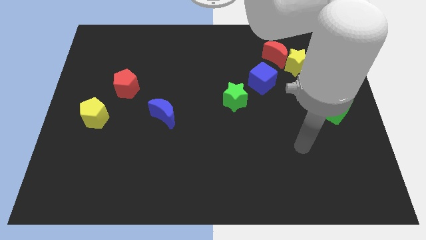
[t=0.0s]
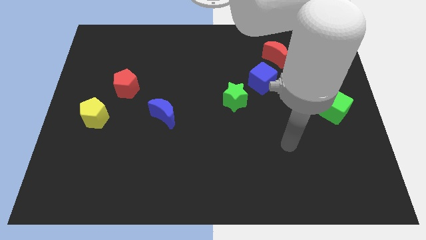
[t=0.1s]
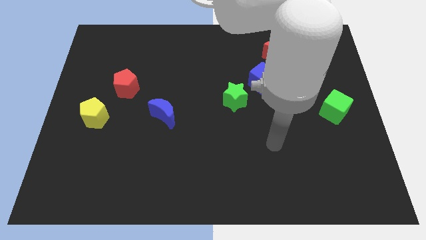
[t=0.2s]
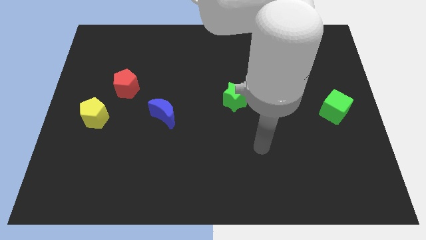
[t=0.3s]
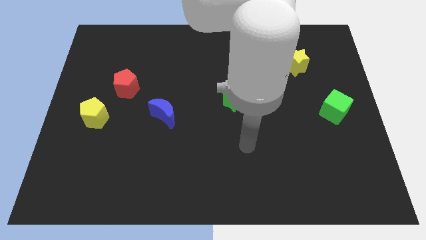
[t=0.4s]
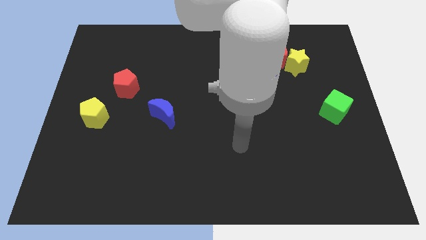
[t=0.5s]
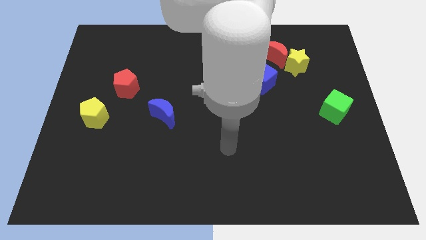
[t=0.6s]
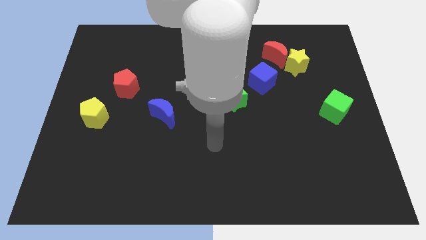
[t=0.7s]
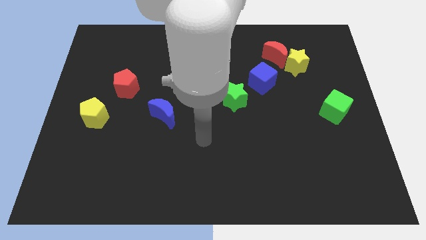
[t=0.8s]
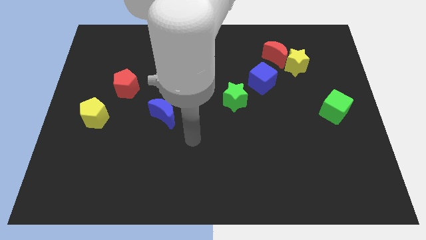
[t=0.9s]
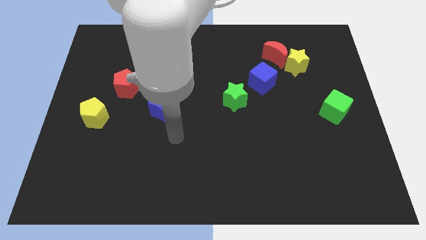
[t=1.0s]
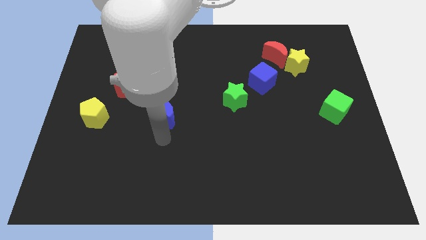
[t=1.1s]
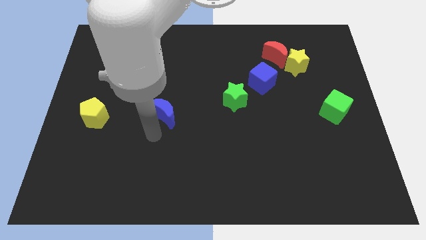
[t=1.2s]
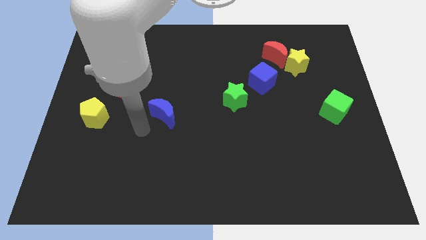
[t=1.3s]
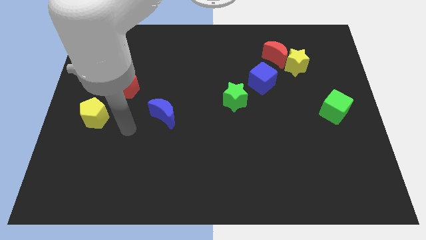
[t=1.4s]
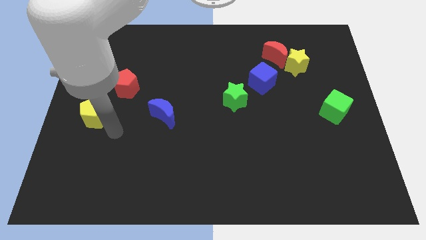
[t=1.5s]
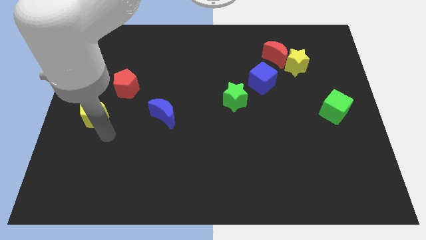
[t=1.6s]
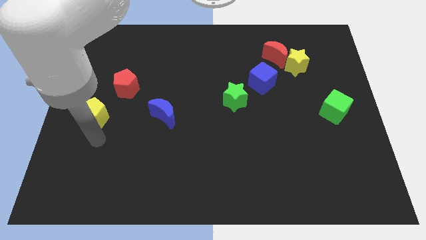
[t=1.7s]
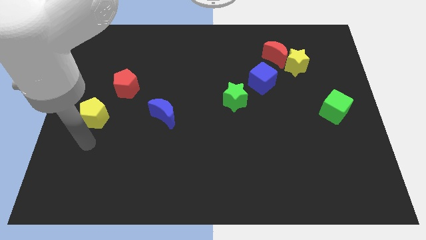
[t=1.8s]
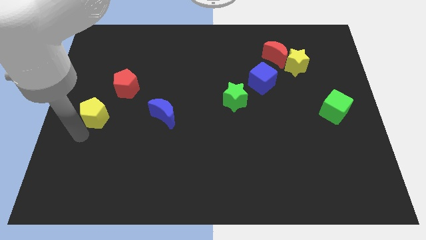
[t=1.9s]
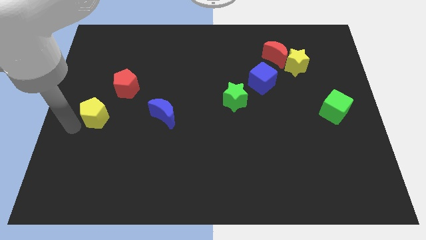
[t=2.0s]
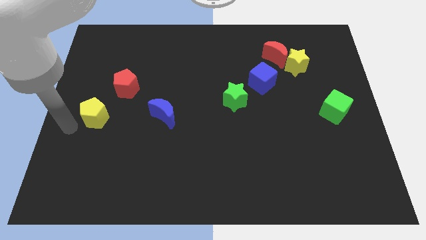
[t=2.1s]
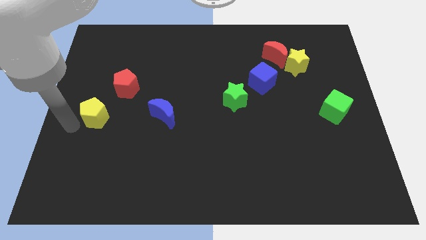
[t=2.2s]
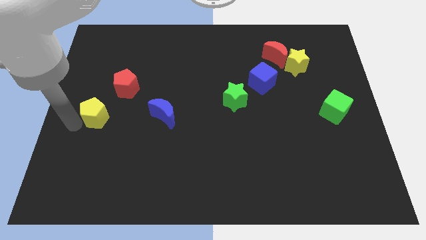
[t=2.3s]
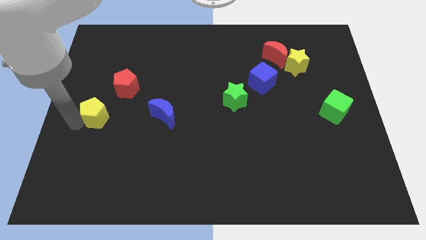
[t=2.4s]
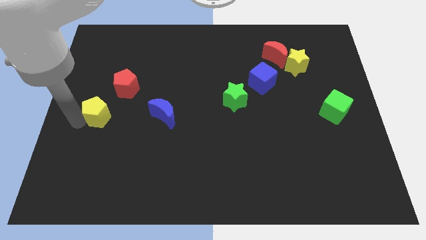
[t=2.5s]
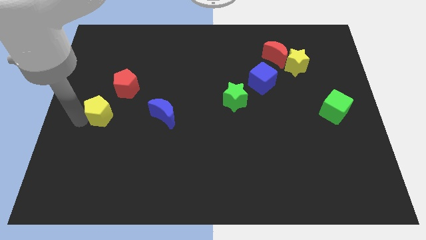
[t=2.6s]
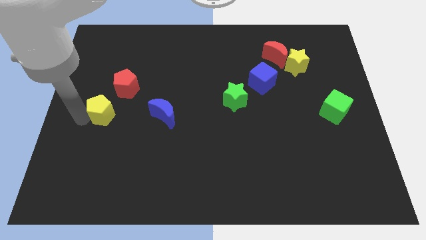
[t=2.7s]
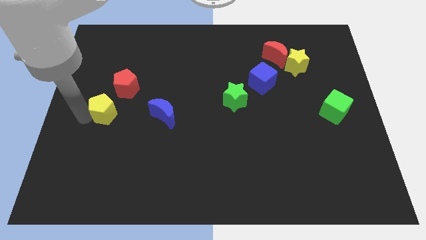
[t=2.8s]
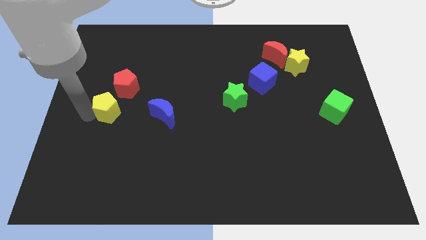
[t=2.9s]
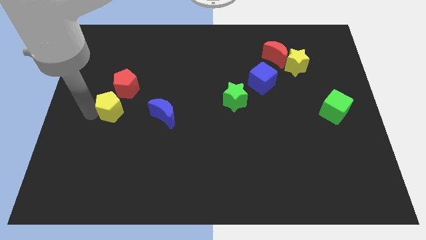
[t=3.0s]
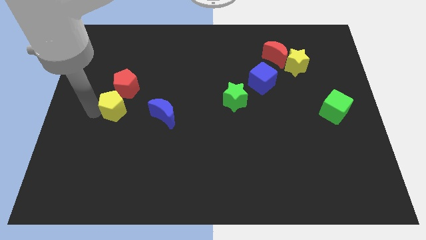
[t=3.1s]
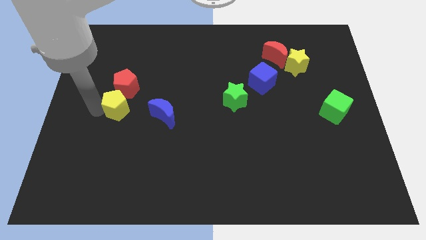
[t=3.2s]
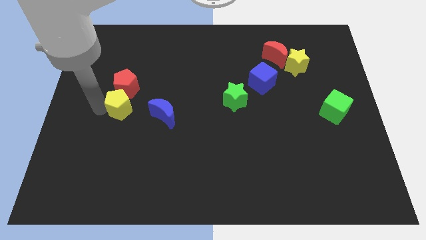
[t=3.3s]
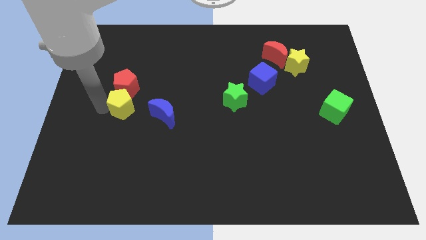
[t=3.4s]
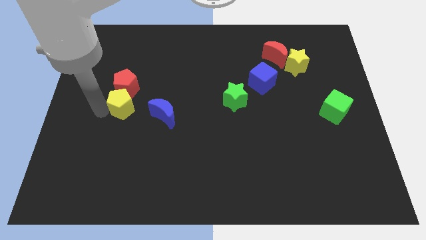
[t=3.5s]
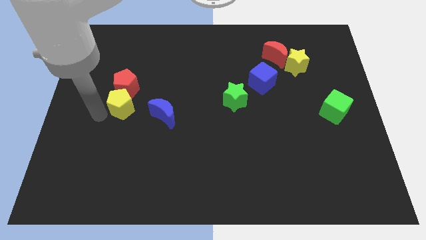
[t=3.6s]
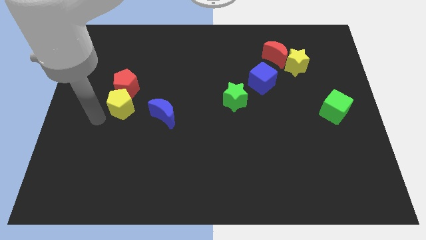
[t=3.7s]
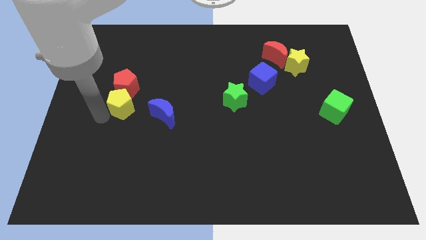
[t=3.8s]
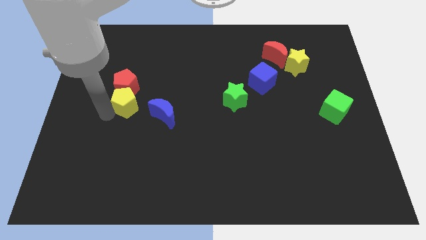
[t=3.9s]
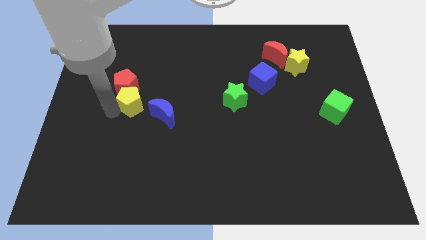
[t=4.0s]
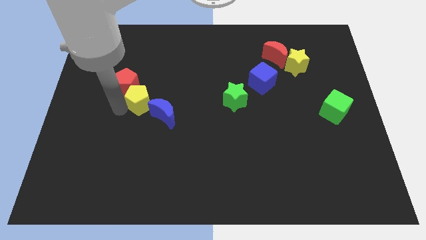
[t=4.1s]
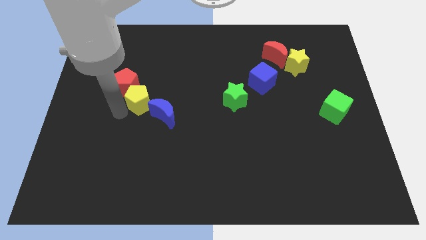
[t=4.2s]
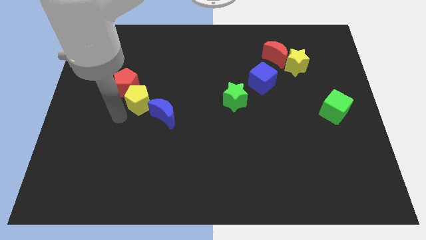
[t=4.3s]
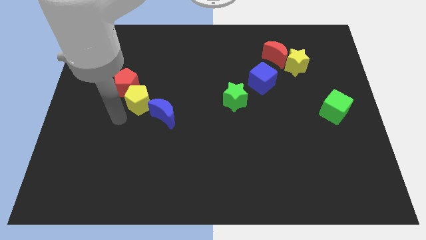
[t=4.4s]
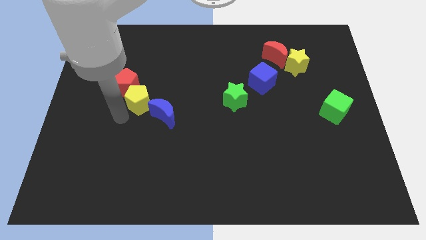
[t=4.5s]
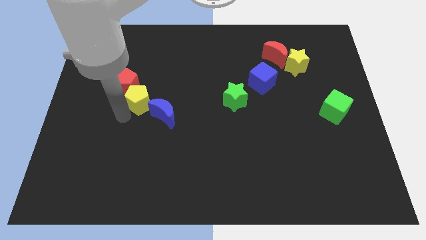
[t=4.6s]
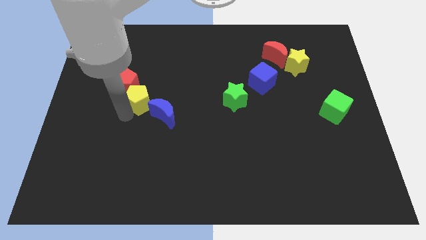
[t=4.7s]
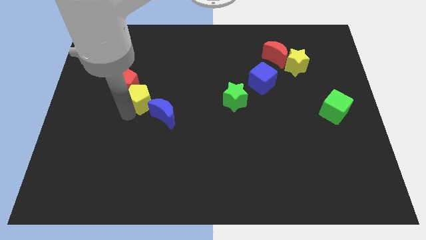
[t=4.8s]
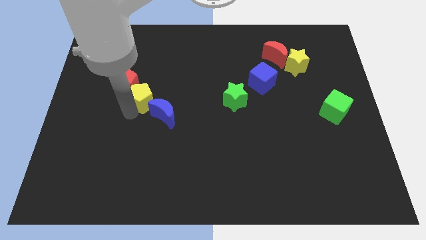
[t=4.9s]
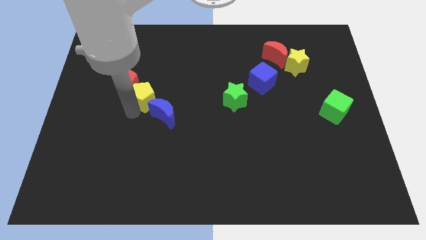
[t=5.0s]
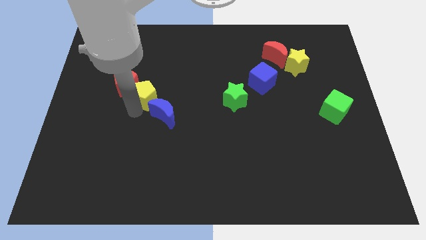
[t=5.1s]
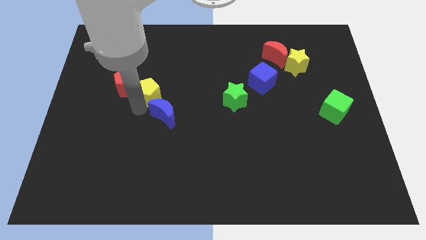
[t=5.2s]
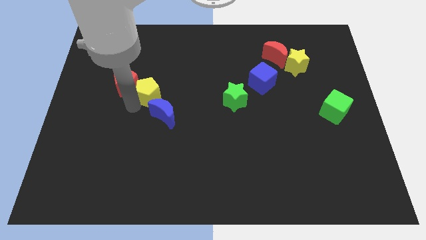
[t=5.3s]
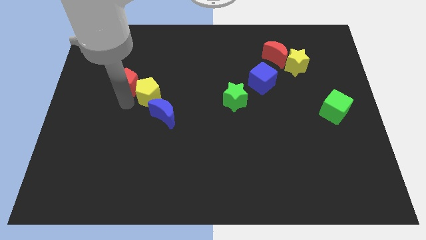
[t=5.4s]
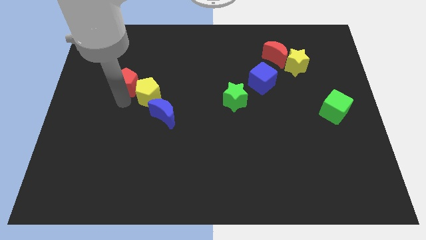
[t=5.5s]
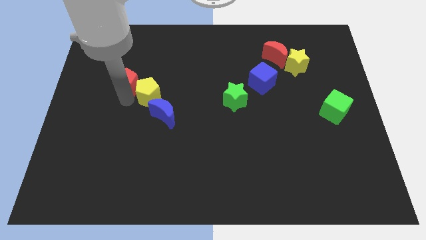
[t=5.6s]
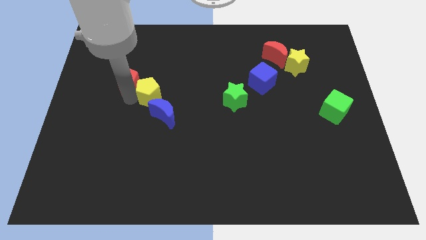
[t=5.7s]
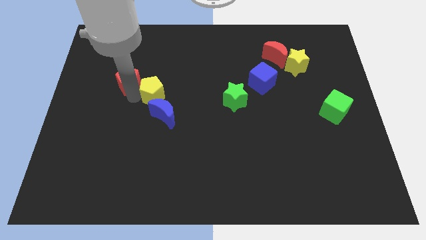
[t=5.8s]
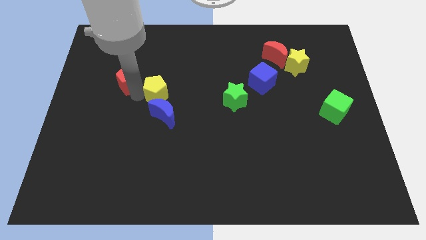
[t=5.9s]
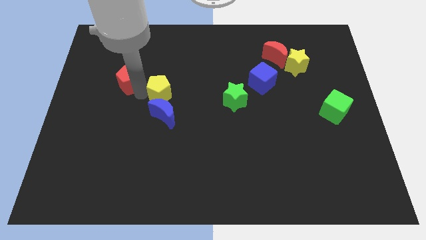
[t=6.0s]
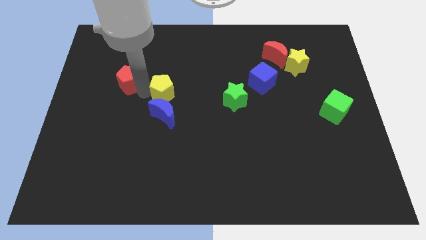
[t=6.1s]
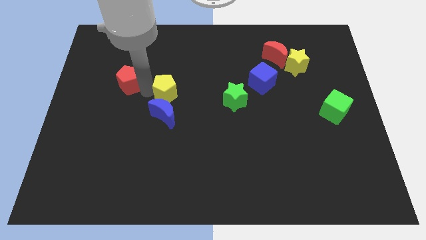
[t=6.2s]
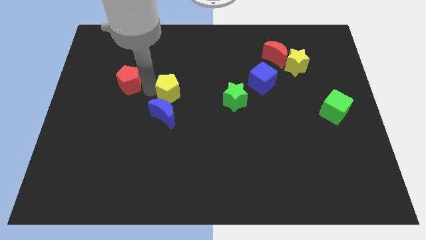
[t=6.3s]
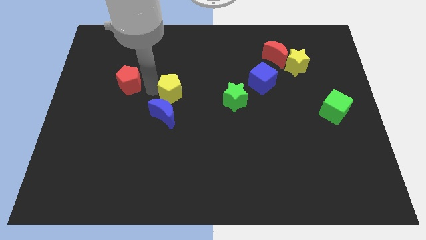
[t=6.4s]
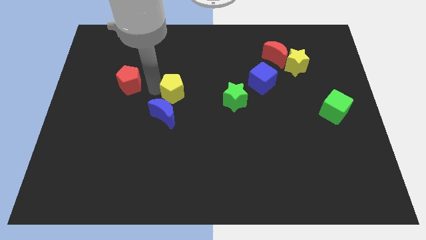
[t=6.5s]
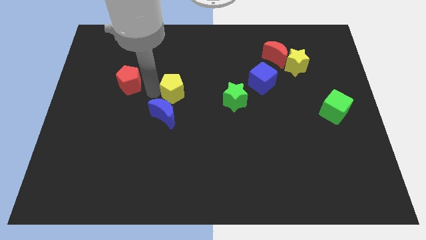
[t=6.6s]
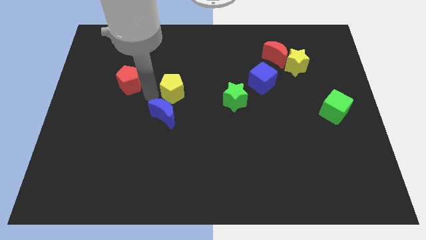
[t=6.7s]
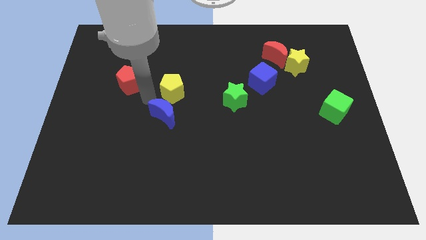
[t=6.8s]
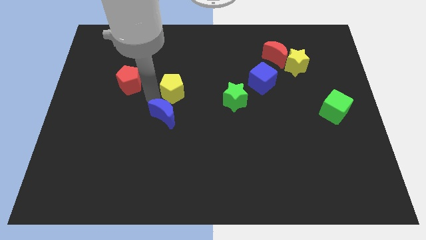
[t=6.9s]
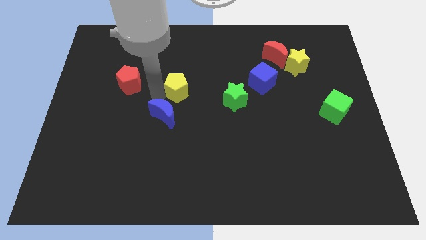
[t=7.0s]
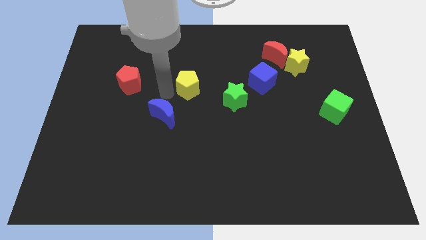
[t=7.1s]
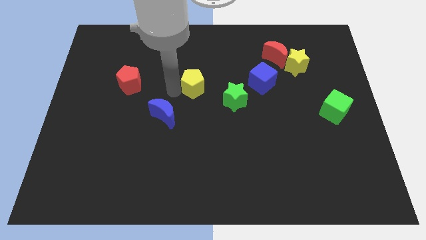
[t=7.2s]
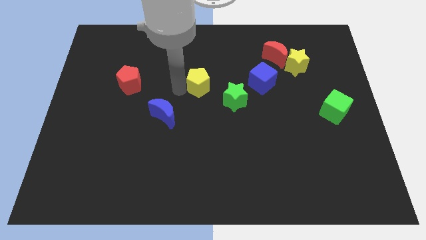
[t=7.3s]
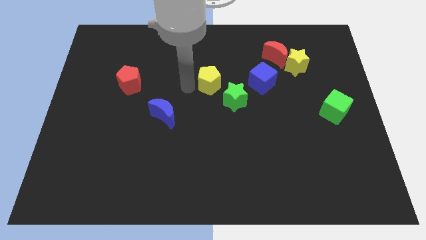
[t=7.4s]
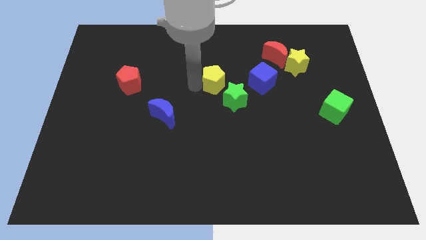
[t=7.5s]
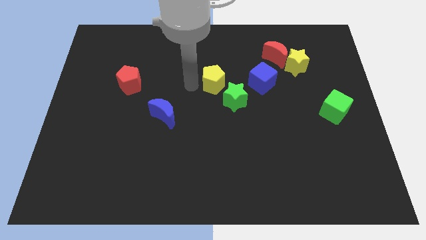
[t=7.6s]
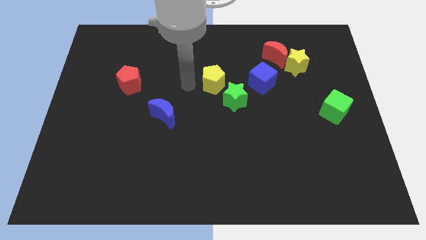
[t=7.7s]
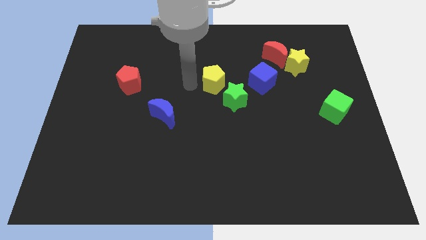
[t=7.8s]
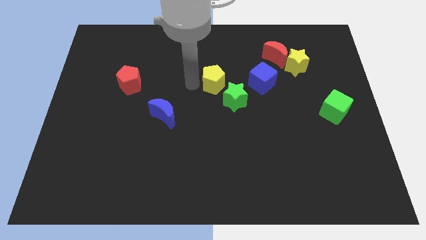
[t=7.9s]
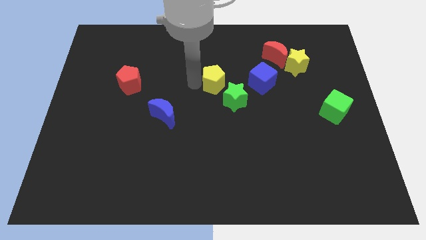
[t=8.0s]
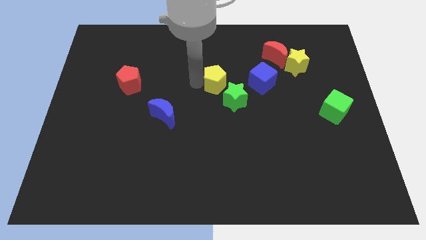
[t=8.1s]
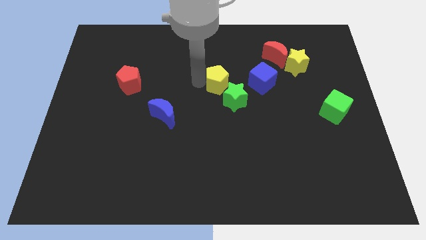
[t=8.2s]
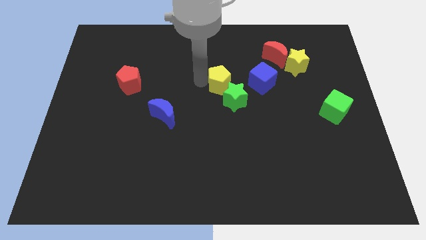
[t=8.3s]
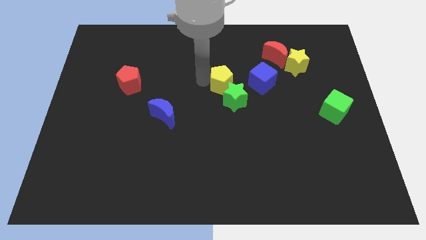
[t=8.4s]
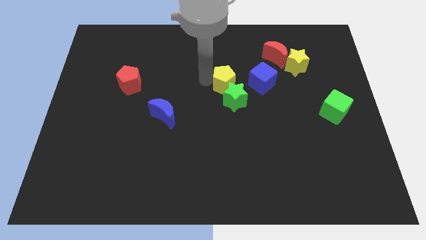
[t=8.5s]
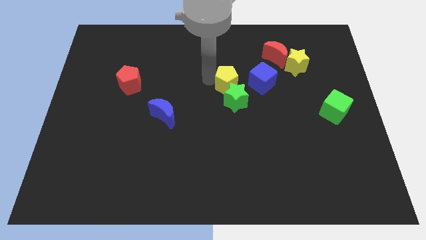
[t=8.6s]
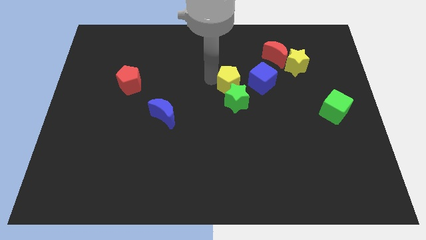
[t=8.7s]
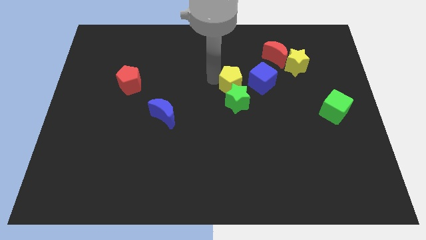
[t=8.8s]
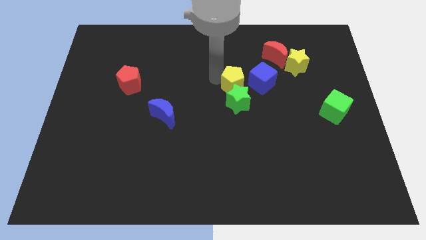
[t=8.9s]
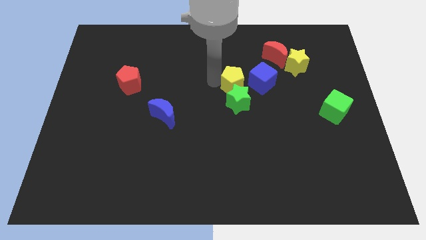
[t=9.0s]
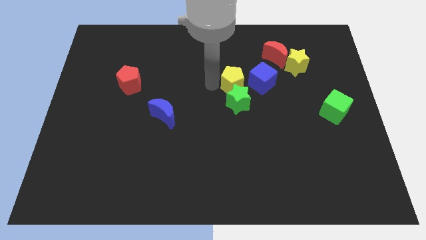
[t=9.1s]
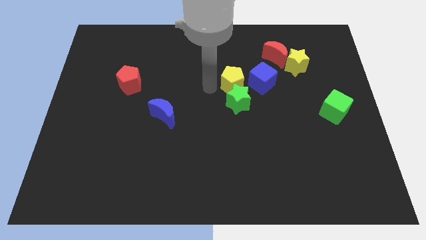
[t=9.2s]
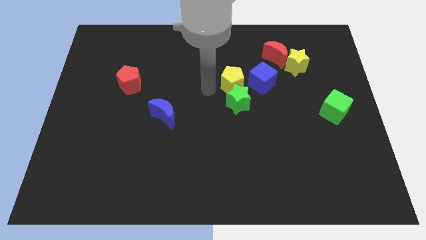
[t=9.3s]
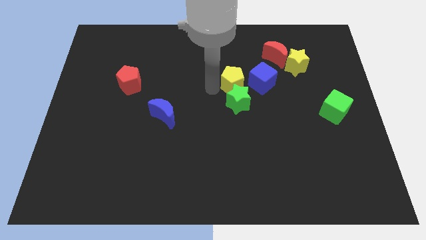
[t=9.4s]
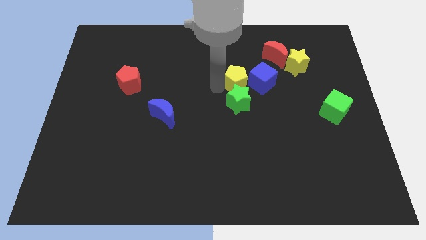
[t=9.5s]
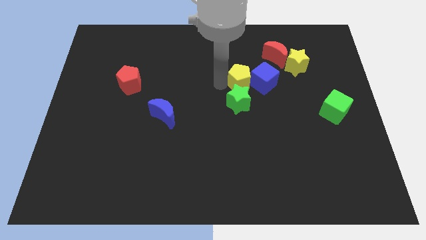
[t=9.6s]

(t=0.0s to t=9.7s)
push the yellow pentagon next to the blue cube
